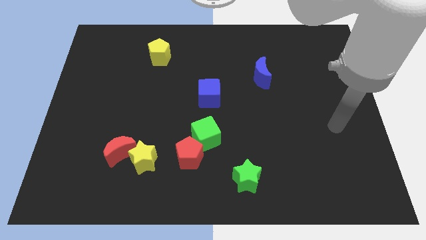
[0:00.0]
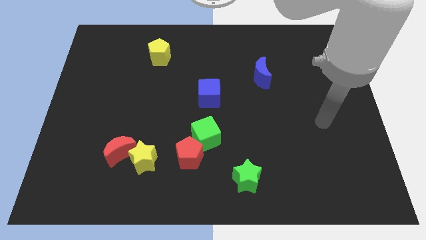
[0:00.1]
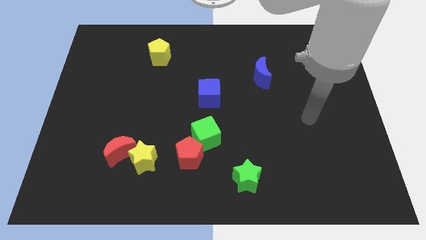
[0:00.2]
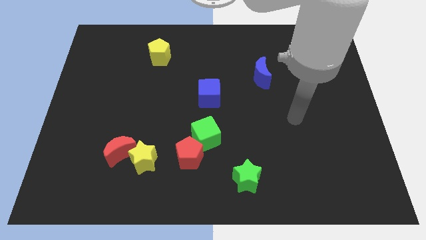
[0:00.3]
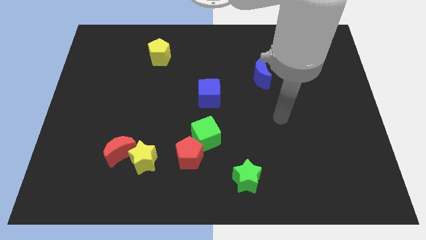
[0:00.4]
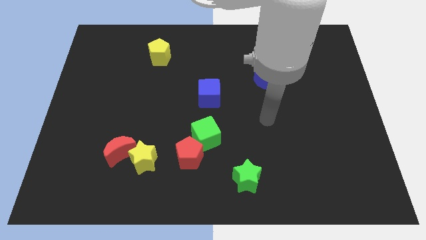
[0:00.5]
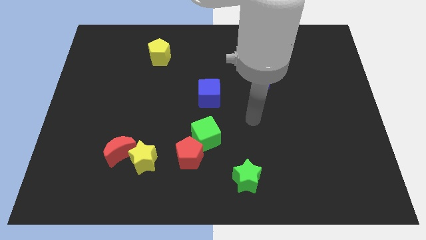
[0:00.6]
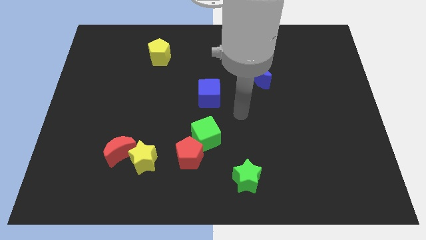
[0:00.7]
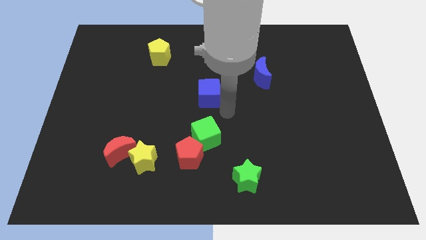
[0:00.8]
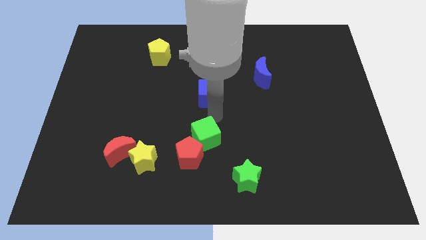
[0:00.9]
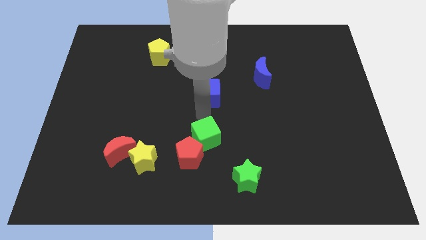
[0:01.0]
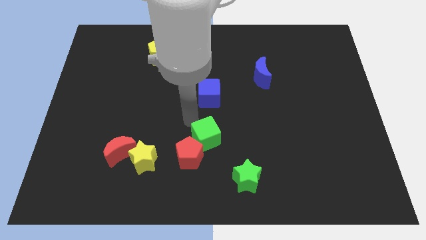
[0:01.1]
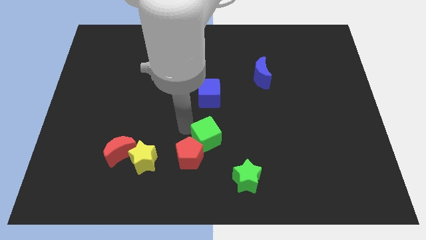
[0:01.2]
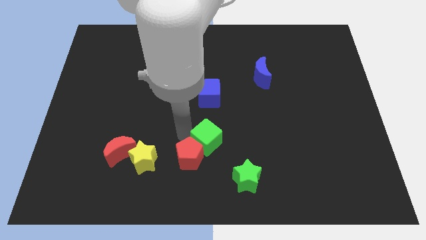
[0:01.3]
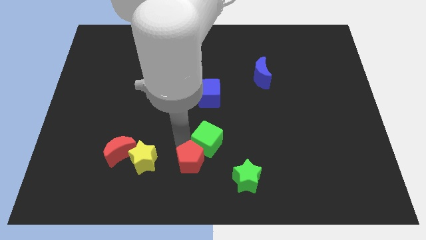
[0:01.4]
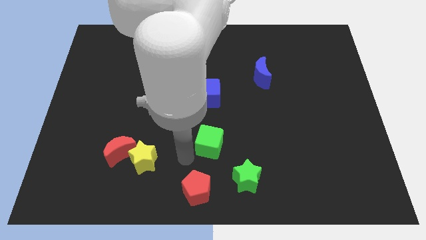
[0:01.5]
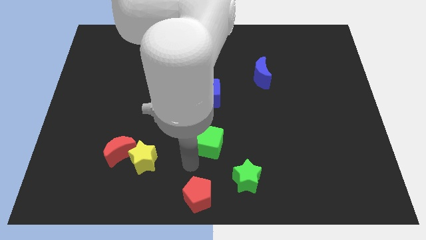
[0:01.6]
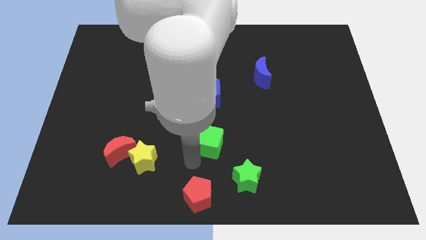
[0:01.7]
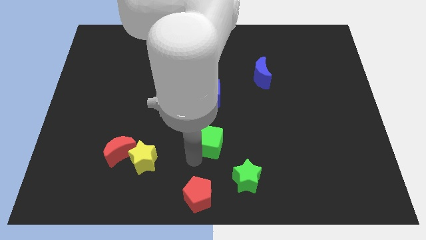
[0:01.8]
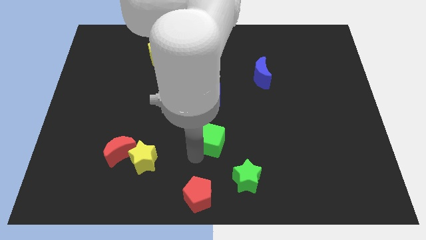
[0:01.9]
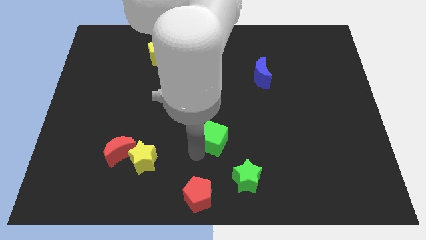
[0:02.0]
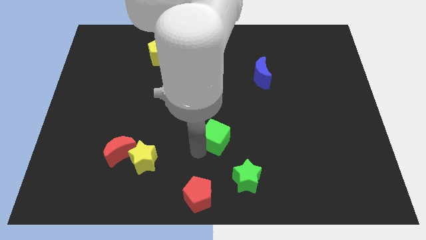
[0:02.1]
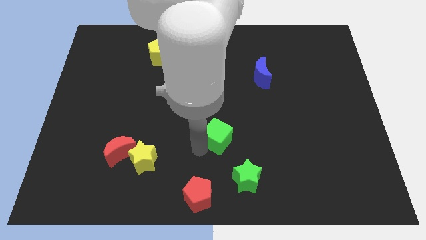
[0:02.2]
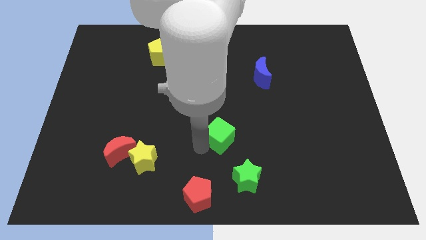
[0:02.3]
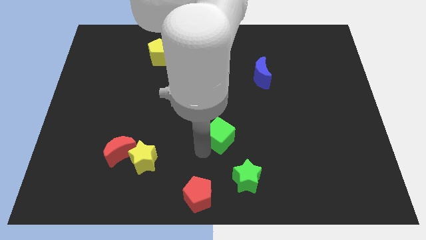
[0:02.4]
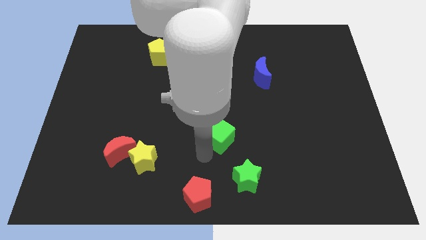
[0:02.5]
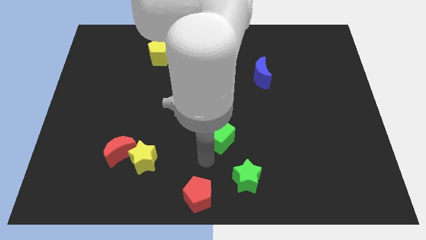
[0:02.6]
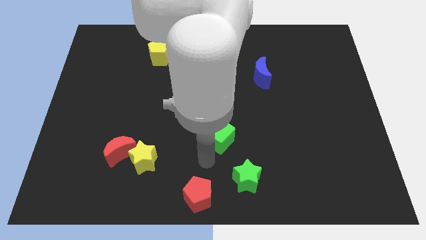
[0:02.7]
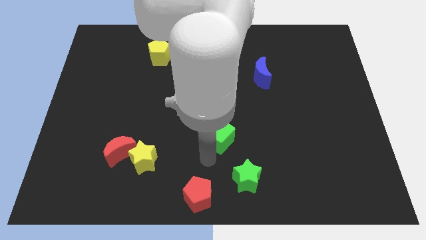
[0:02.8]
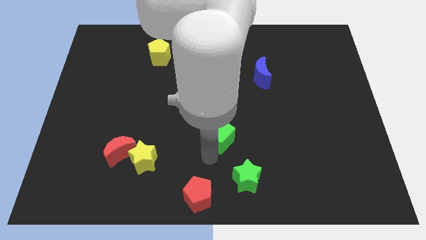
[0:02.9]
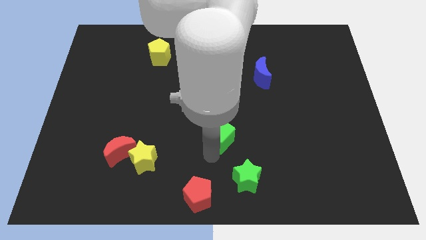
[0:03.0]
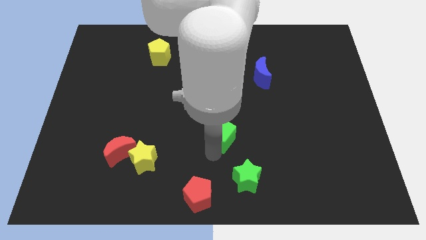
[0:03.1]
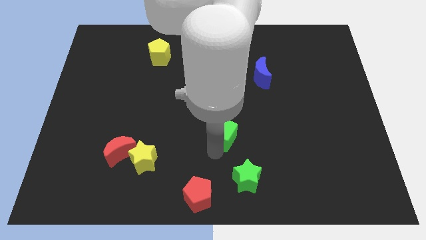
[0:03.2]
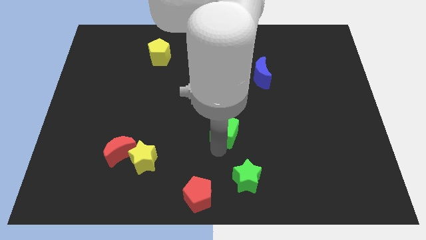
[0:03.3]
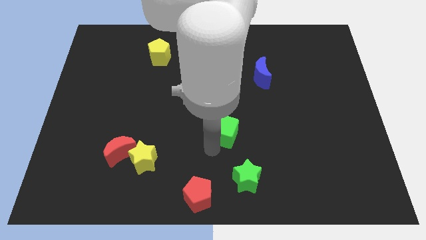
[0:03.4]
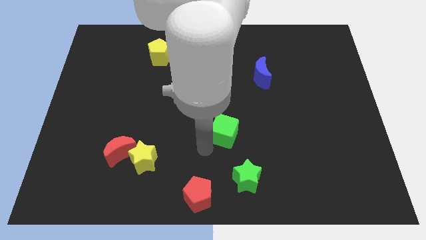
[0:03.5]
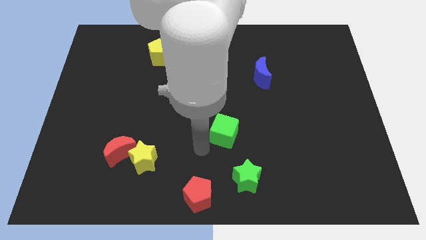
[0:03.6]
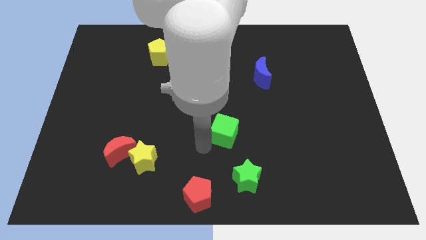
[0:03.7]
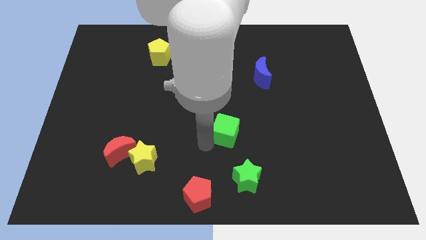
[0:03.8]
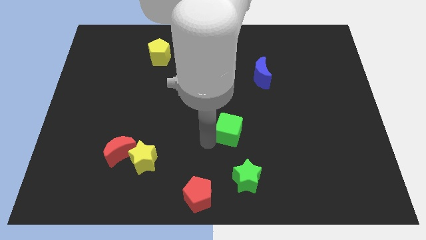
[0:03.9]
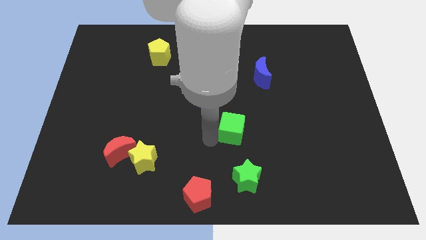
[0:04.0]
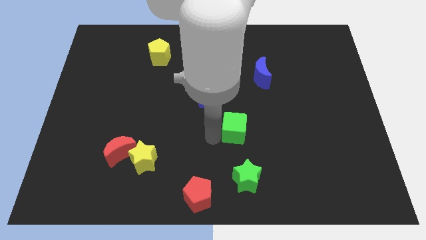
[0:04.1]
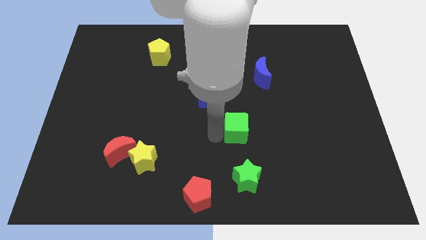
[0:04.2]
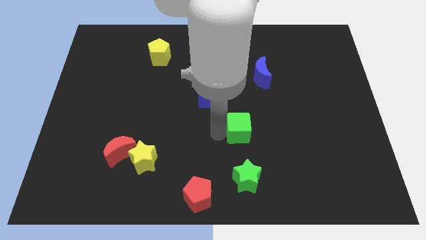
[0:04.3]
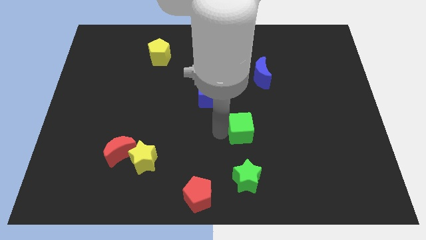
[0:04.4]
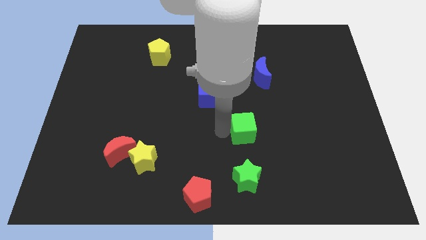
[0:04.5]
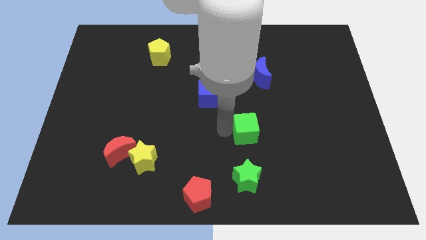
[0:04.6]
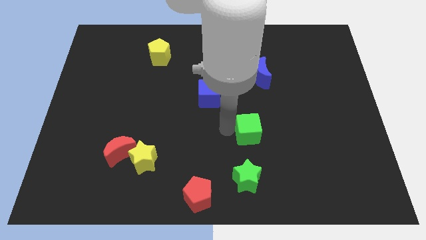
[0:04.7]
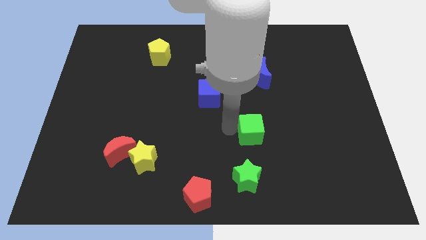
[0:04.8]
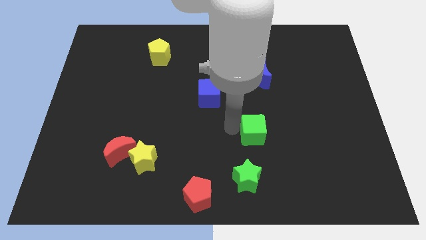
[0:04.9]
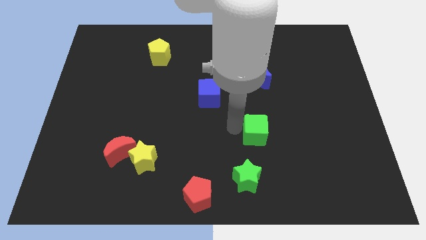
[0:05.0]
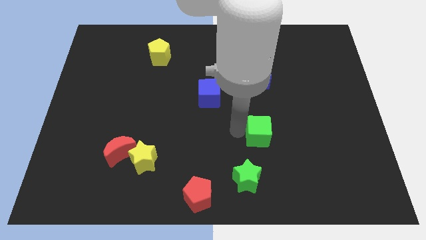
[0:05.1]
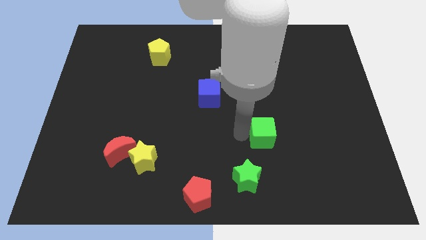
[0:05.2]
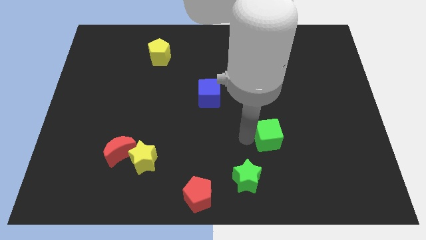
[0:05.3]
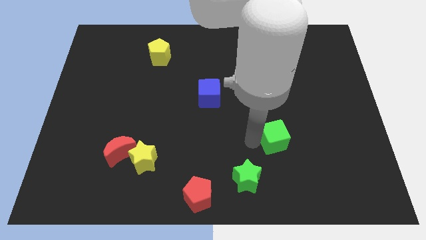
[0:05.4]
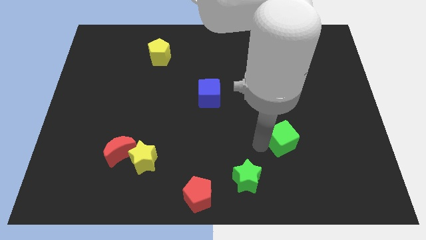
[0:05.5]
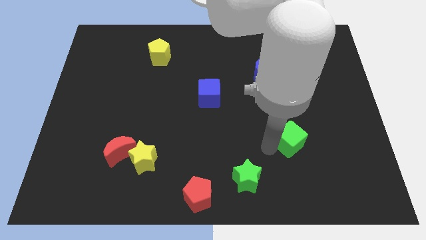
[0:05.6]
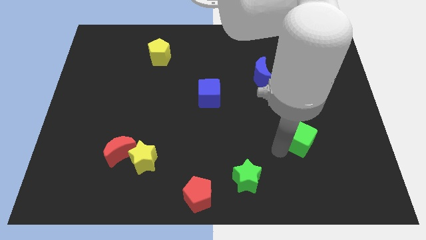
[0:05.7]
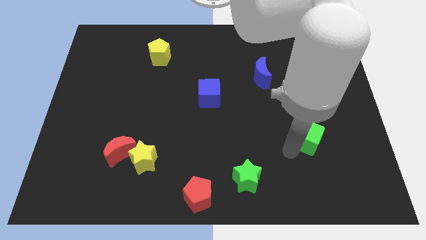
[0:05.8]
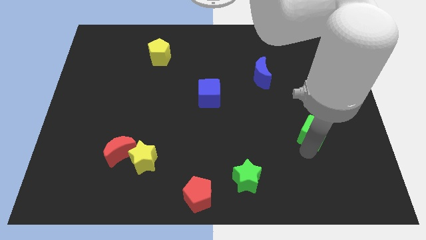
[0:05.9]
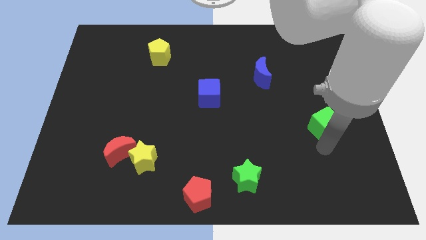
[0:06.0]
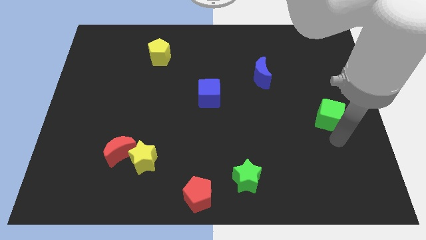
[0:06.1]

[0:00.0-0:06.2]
put the green cube to the center right
